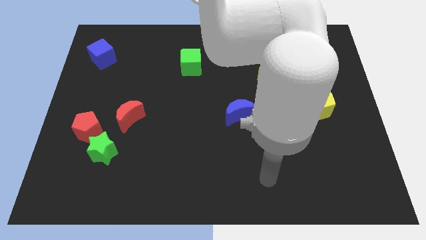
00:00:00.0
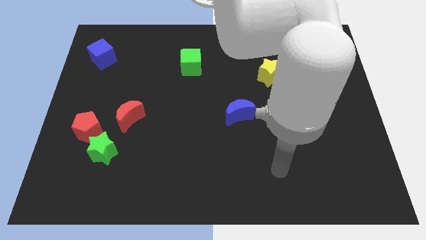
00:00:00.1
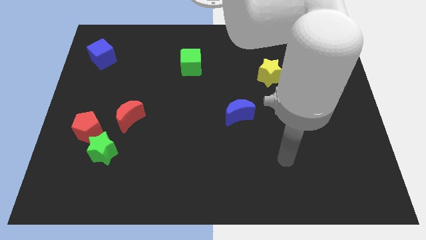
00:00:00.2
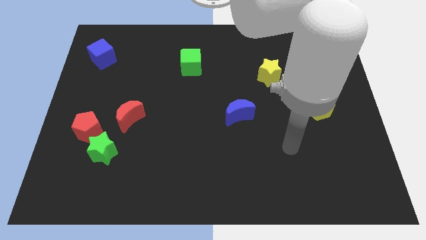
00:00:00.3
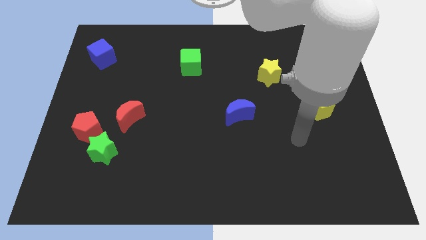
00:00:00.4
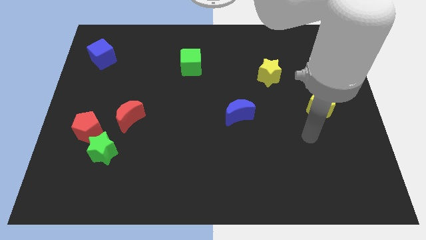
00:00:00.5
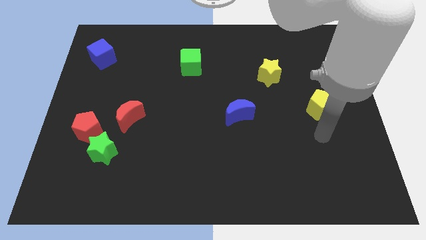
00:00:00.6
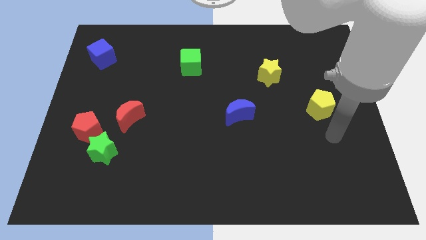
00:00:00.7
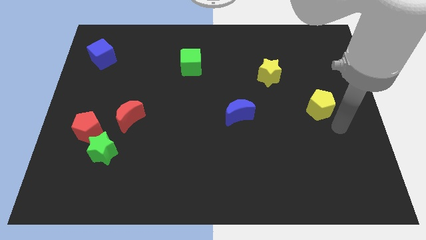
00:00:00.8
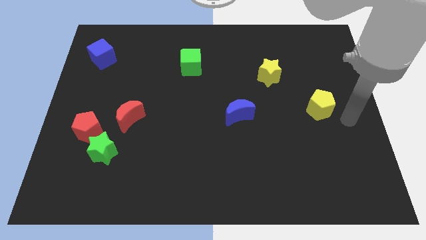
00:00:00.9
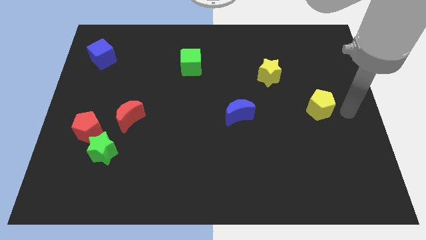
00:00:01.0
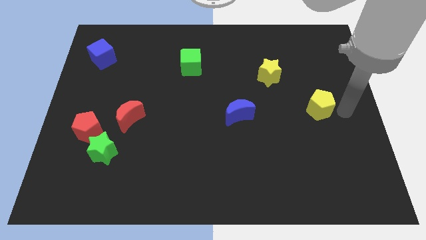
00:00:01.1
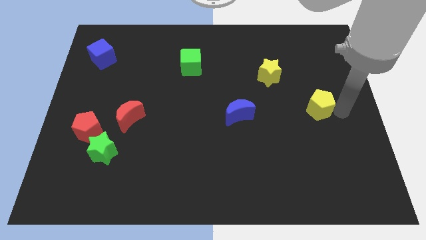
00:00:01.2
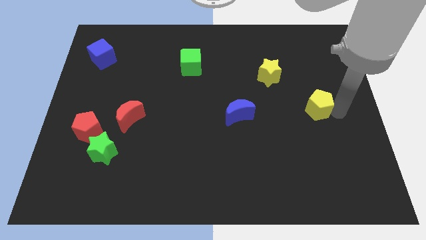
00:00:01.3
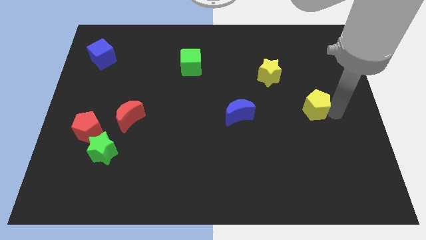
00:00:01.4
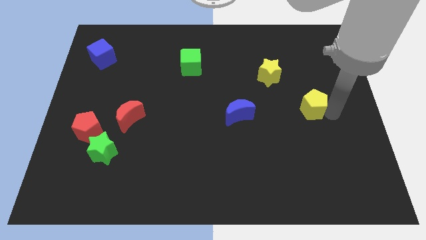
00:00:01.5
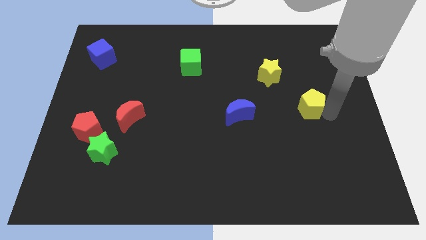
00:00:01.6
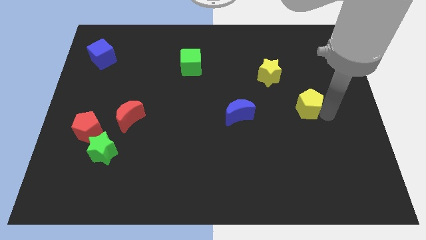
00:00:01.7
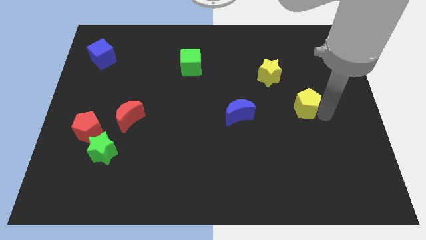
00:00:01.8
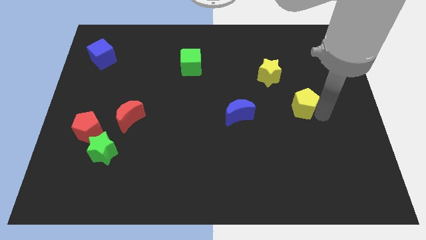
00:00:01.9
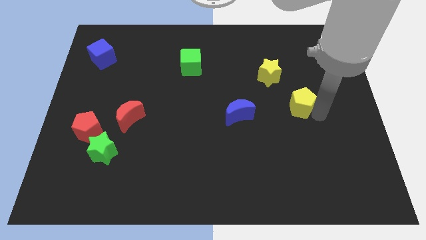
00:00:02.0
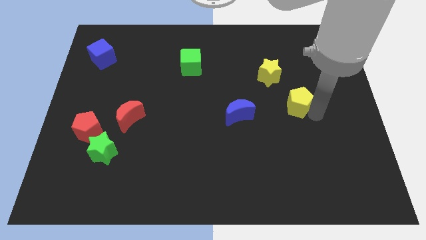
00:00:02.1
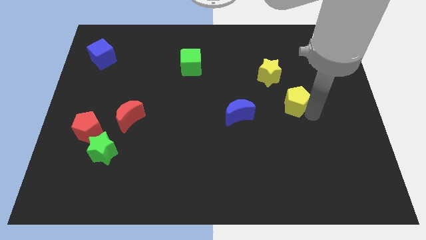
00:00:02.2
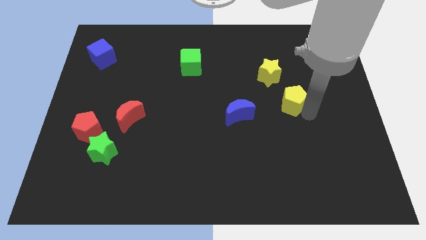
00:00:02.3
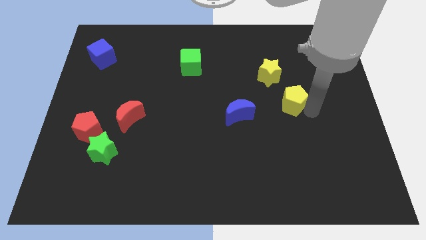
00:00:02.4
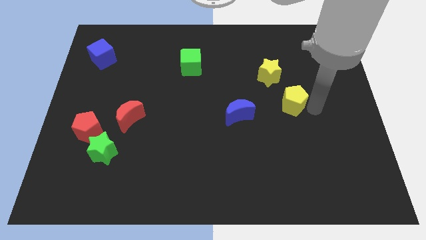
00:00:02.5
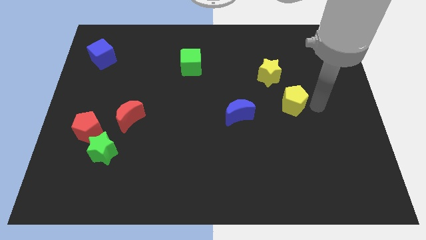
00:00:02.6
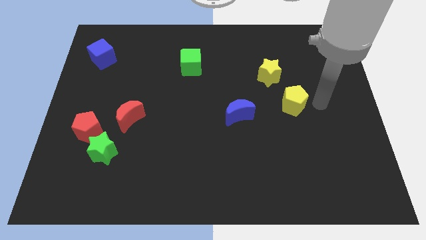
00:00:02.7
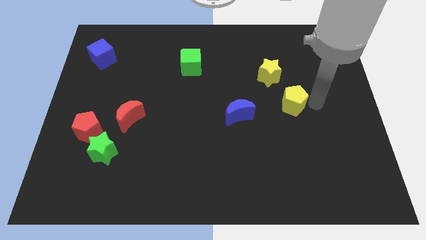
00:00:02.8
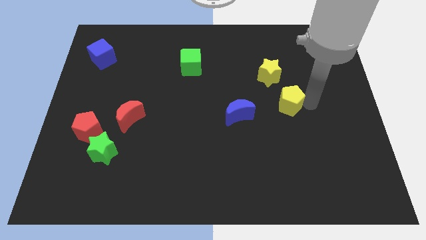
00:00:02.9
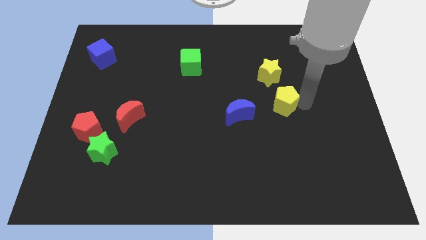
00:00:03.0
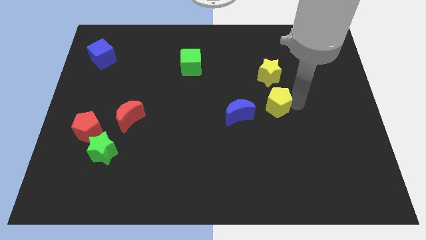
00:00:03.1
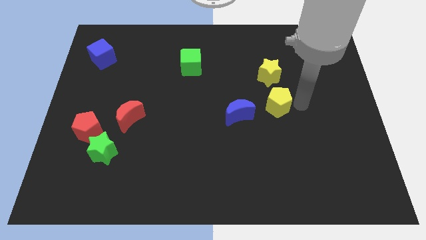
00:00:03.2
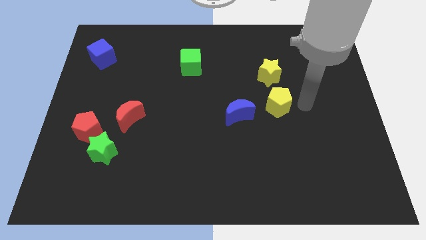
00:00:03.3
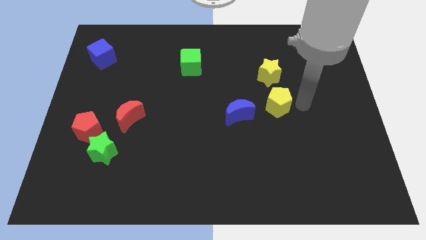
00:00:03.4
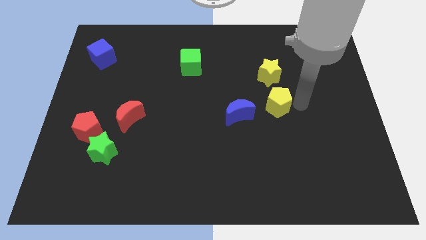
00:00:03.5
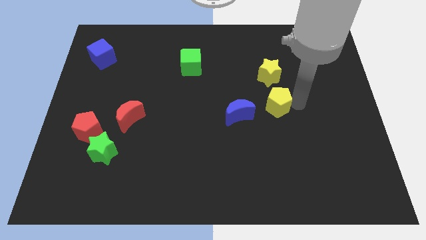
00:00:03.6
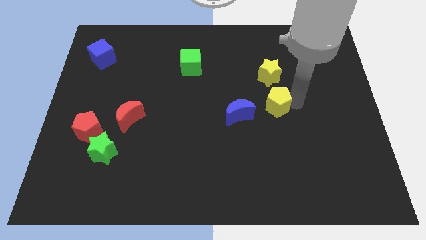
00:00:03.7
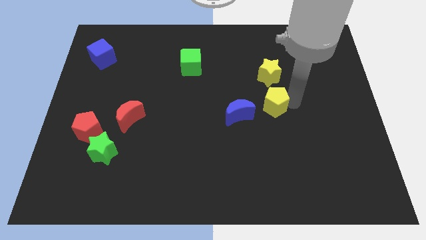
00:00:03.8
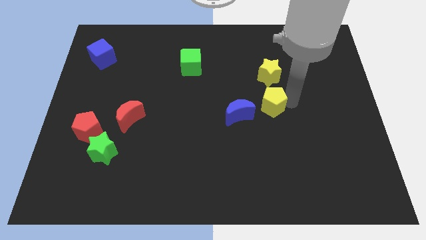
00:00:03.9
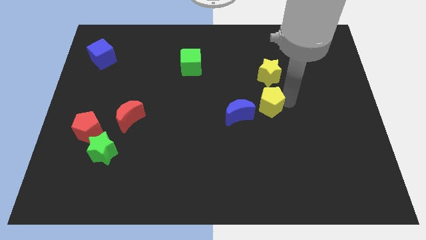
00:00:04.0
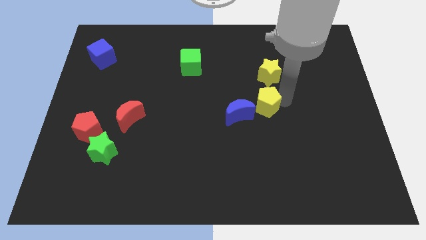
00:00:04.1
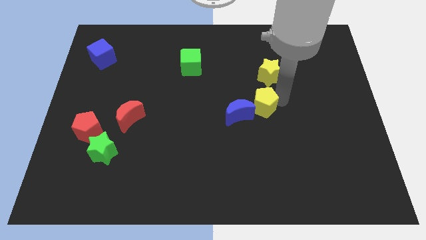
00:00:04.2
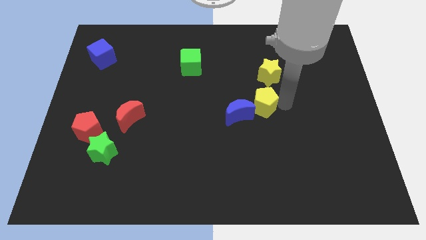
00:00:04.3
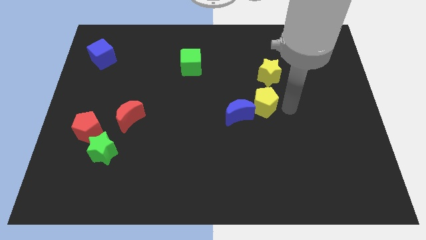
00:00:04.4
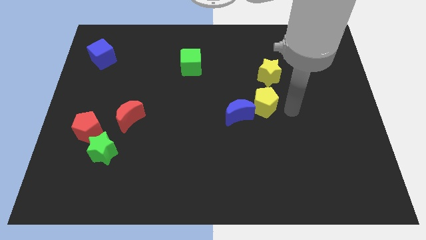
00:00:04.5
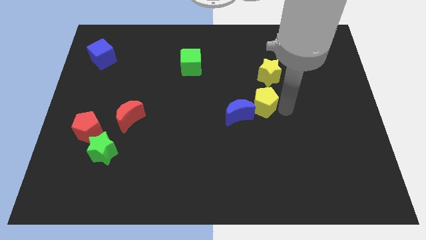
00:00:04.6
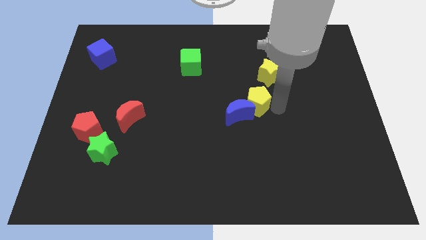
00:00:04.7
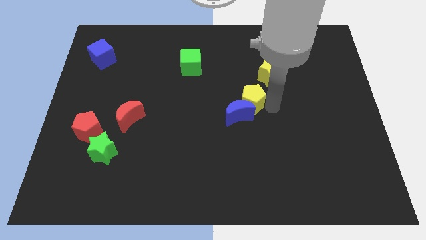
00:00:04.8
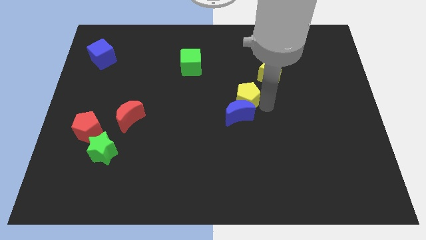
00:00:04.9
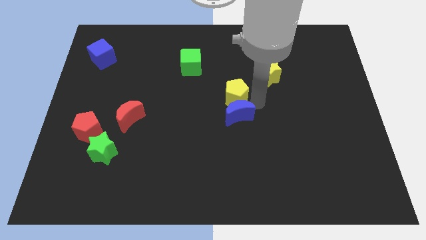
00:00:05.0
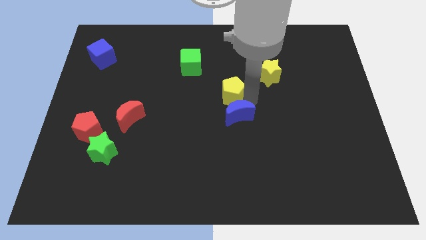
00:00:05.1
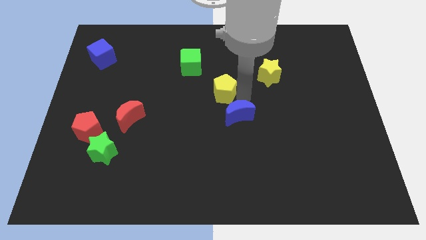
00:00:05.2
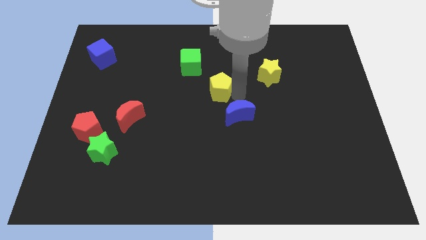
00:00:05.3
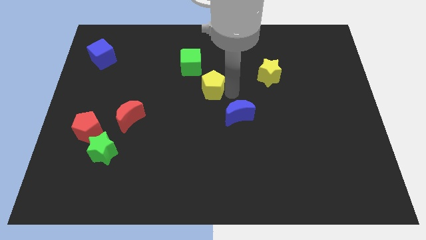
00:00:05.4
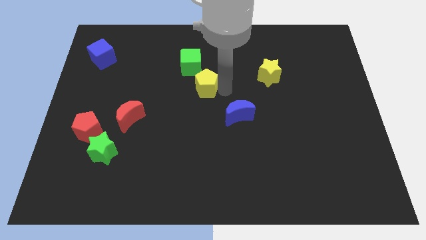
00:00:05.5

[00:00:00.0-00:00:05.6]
push the yellow pentagon to the bottom side of the green cube

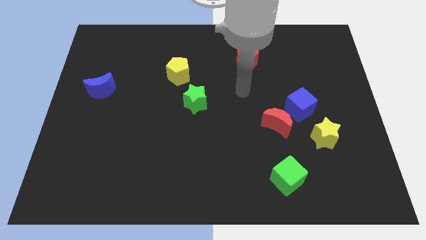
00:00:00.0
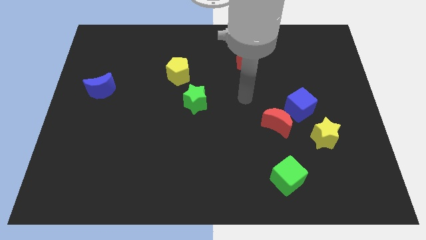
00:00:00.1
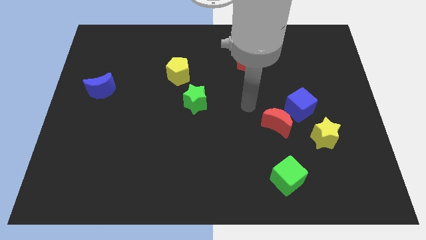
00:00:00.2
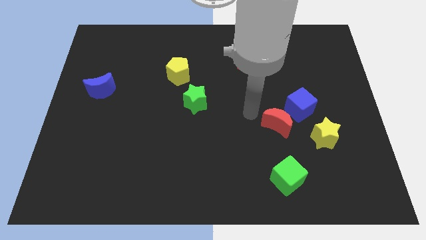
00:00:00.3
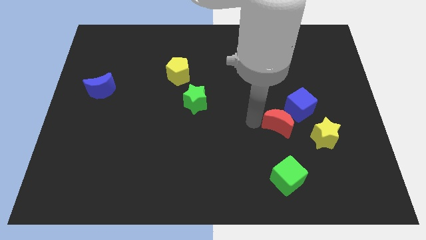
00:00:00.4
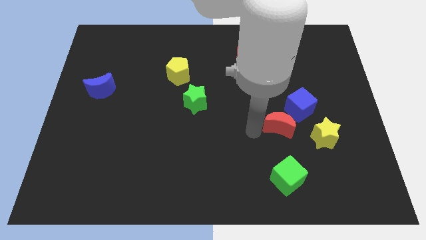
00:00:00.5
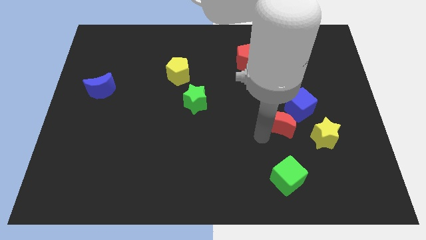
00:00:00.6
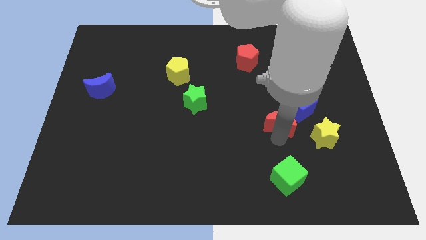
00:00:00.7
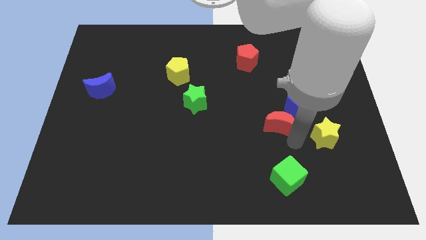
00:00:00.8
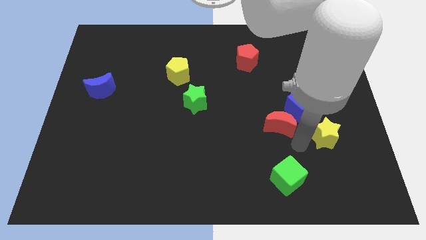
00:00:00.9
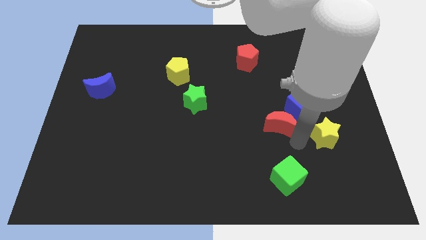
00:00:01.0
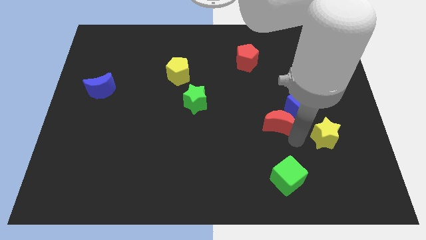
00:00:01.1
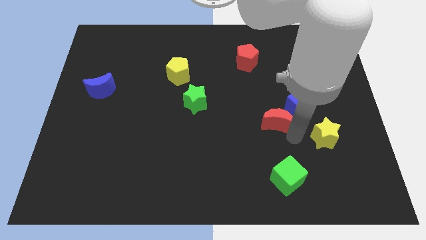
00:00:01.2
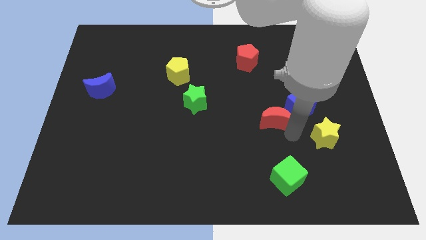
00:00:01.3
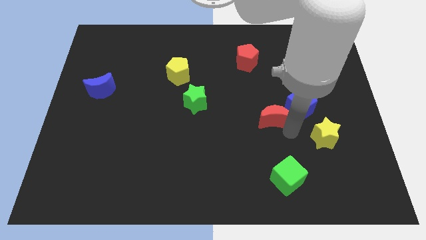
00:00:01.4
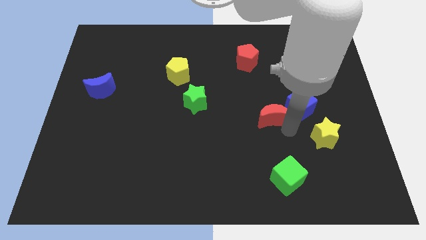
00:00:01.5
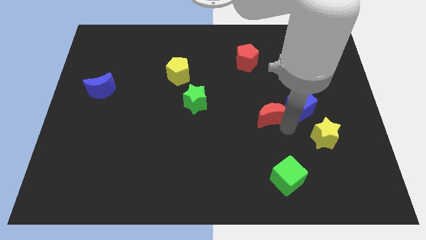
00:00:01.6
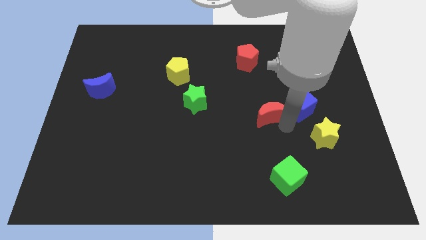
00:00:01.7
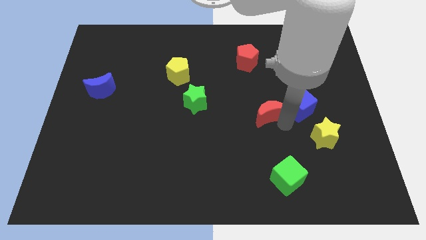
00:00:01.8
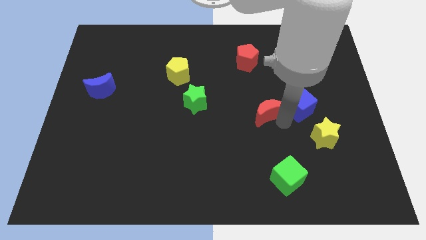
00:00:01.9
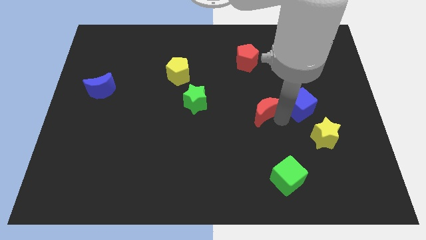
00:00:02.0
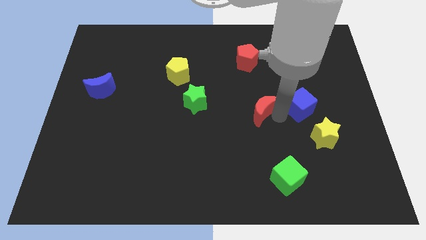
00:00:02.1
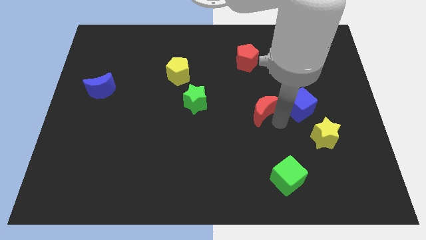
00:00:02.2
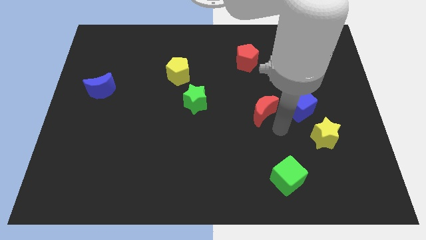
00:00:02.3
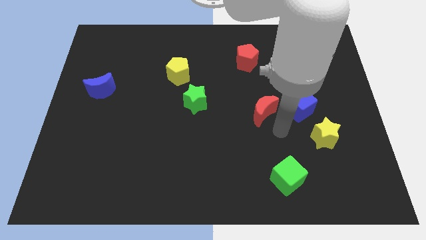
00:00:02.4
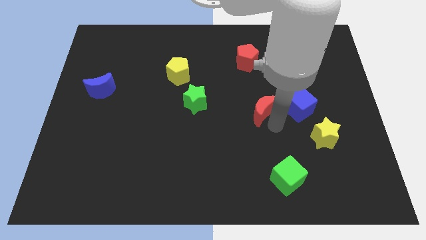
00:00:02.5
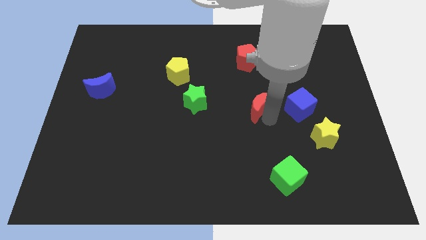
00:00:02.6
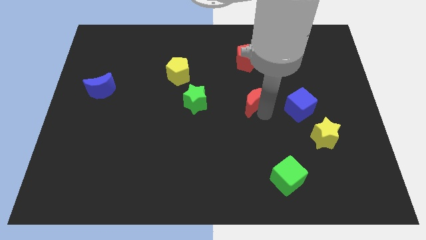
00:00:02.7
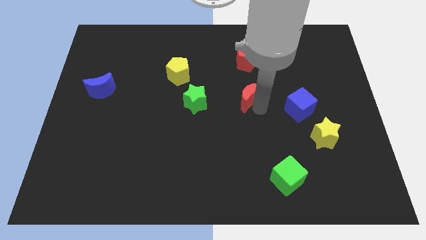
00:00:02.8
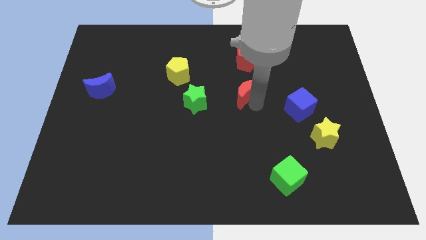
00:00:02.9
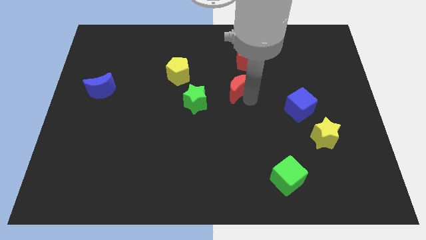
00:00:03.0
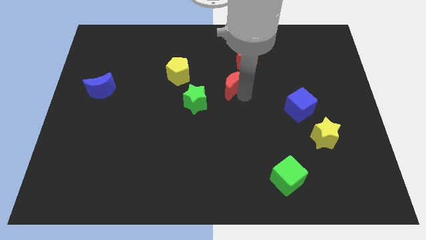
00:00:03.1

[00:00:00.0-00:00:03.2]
move the red moon to the bottom left of the red pentagon
